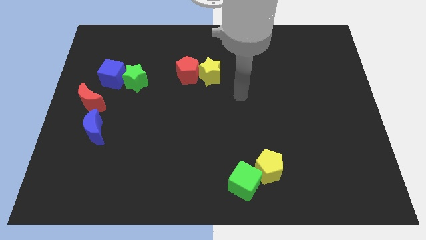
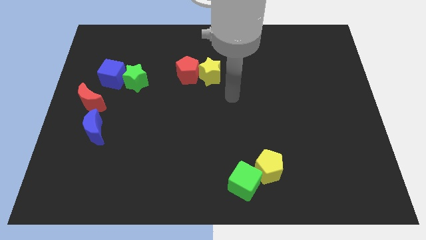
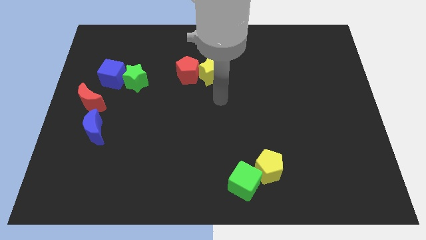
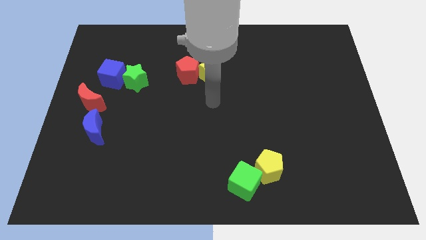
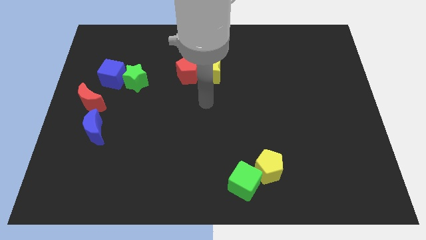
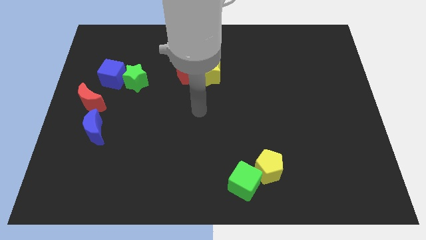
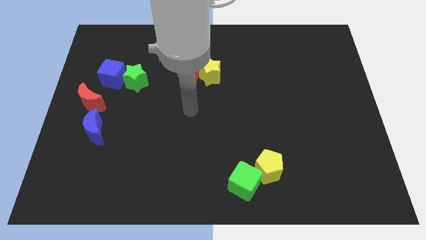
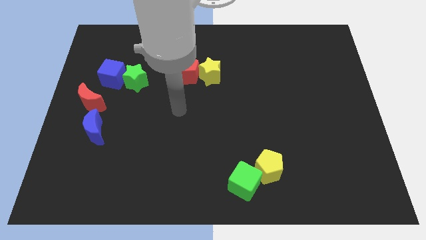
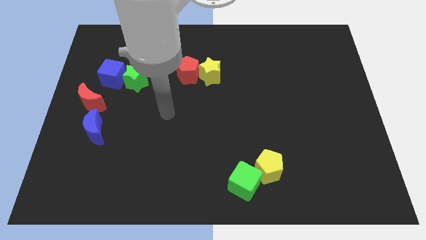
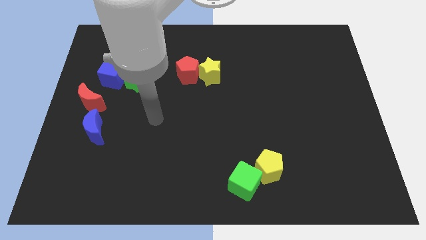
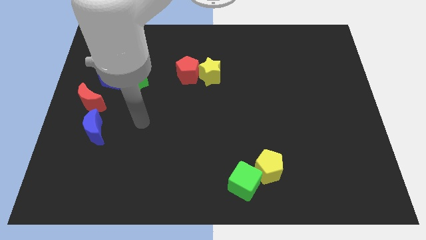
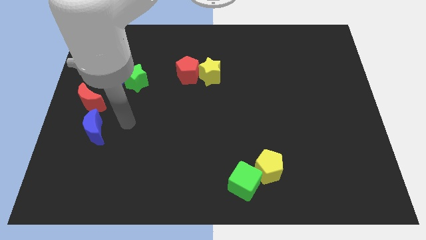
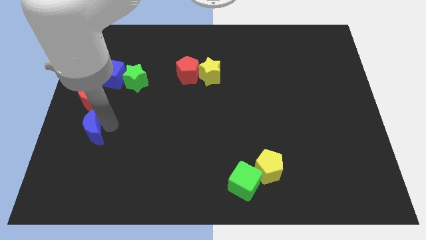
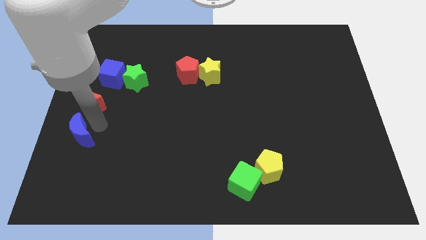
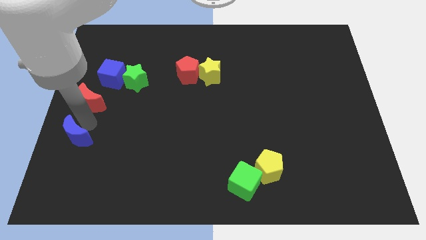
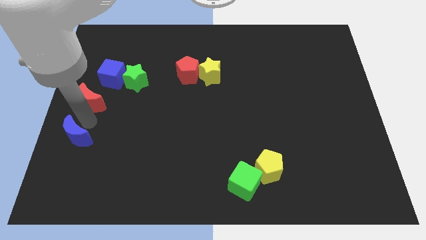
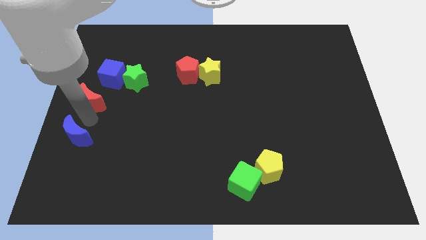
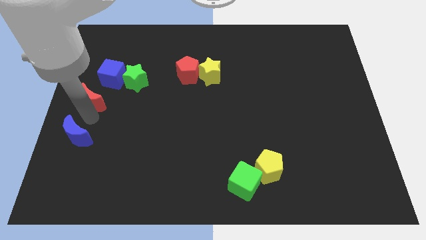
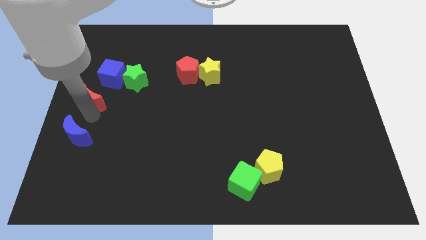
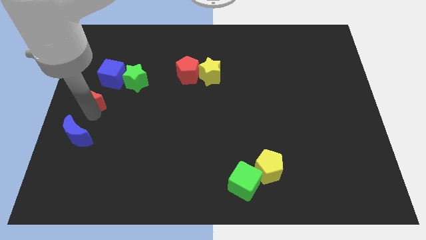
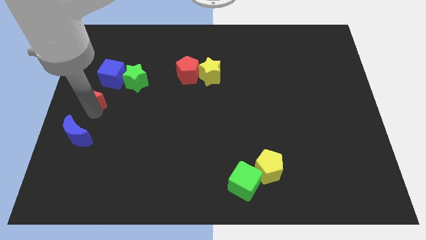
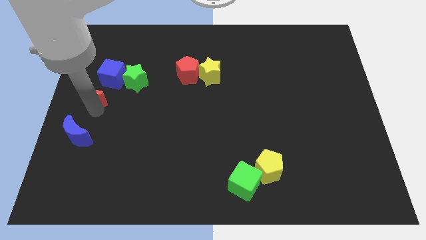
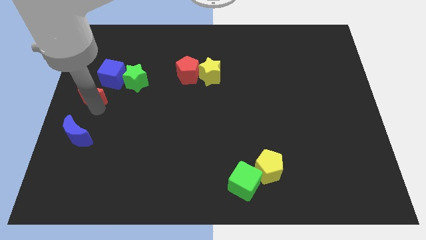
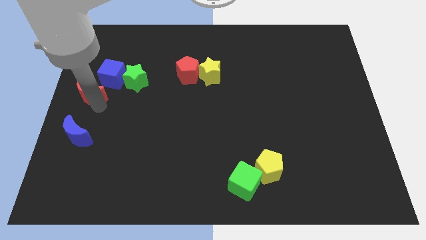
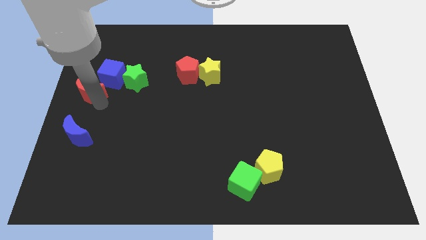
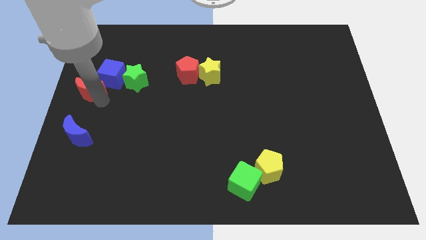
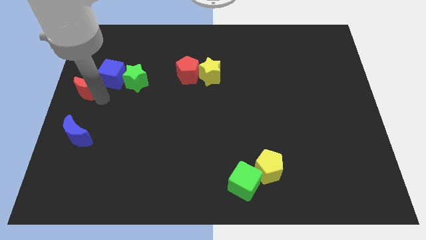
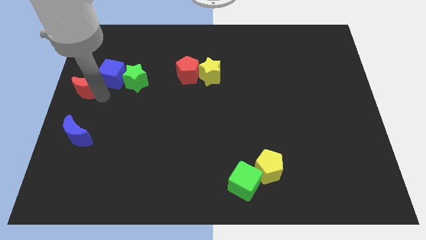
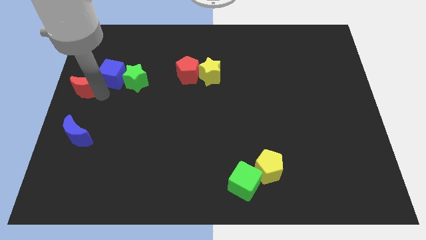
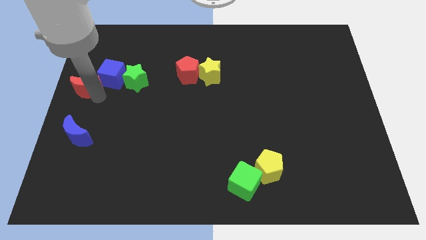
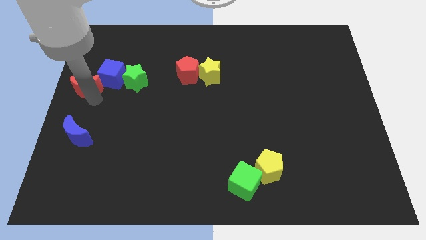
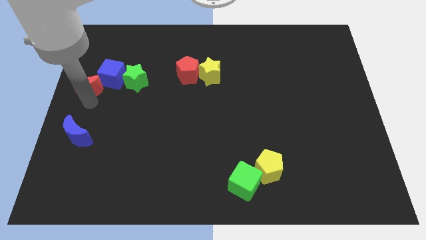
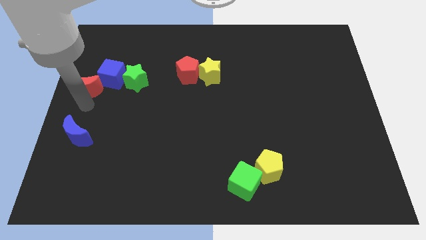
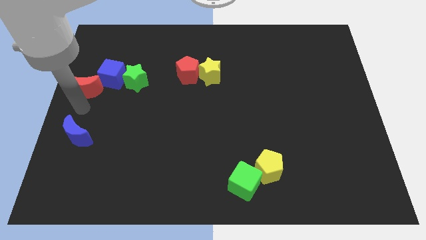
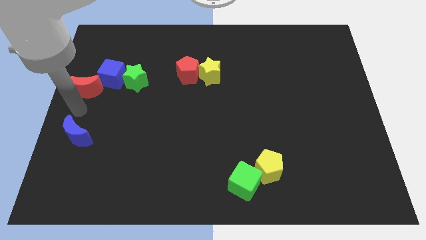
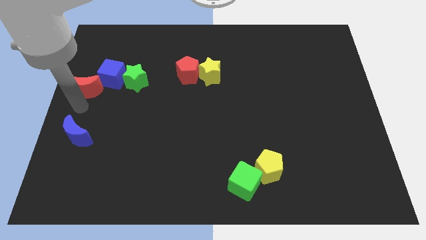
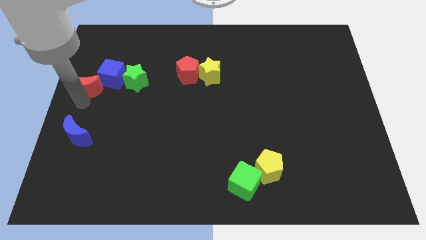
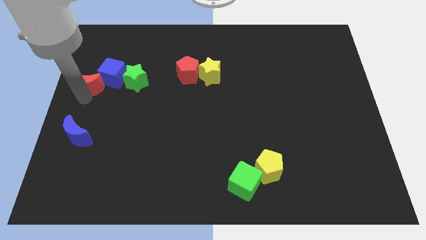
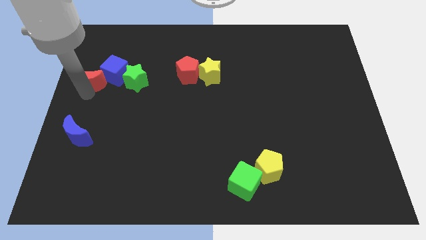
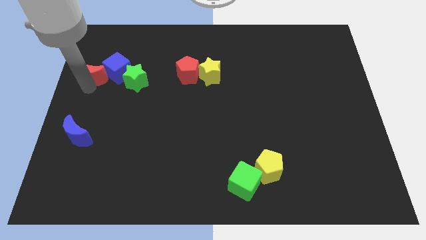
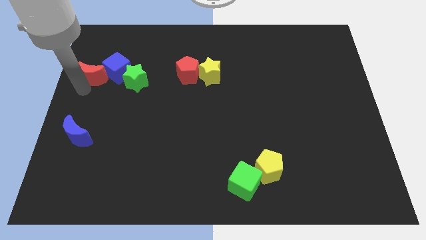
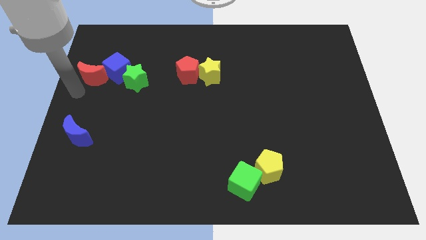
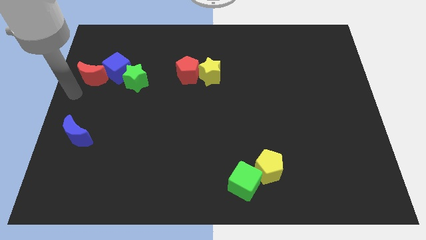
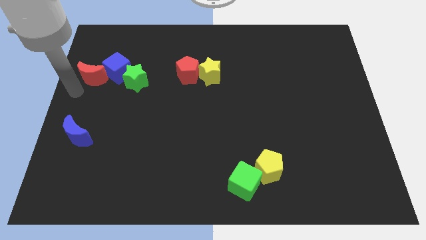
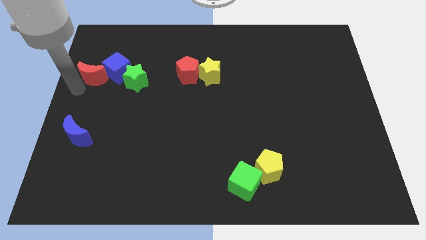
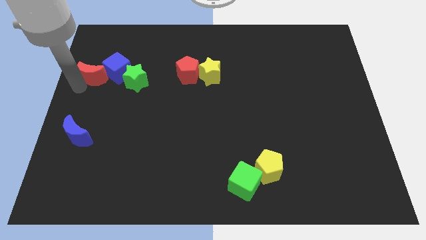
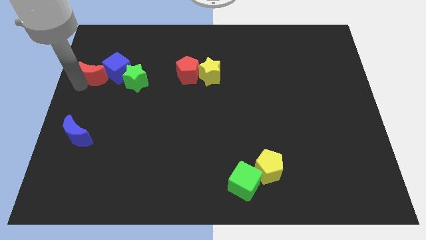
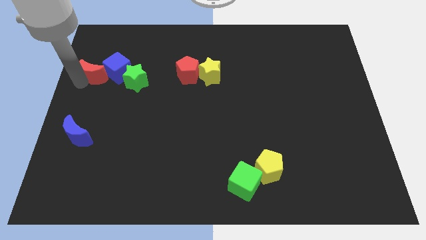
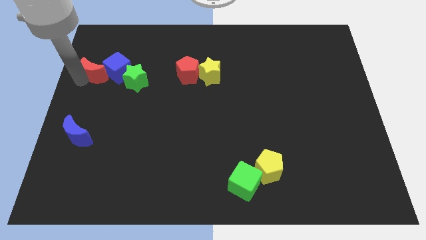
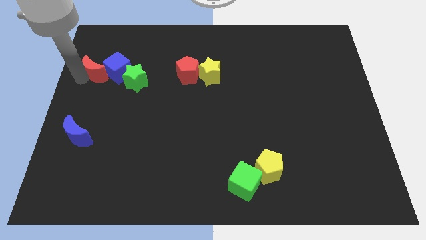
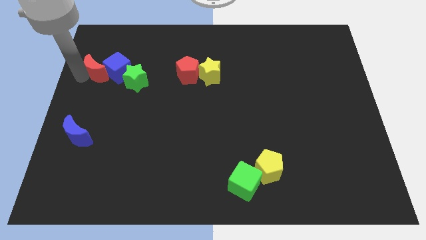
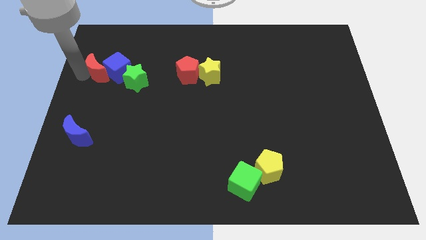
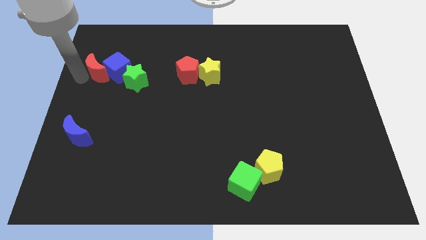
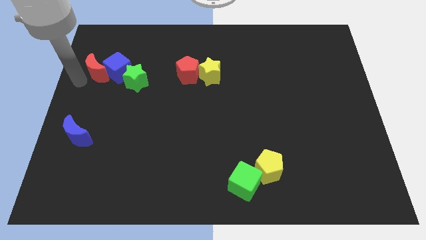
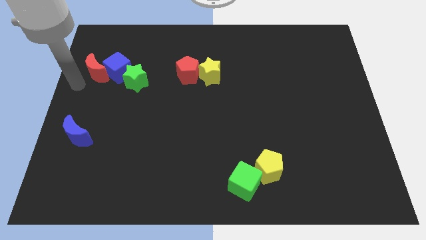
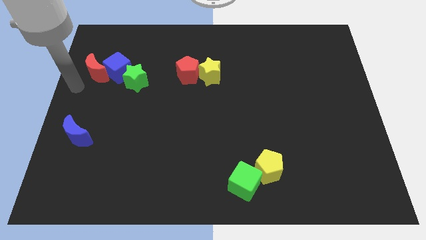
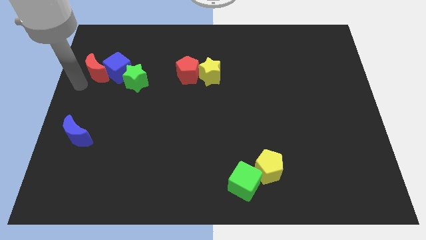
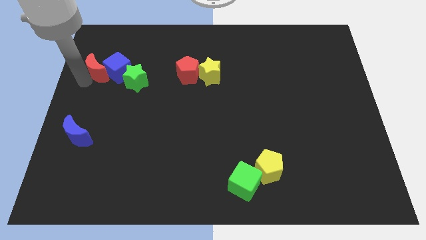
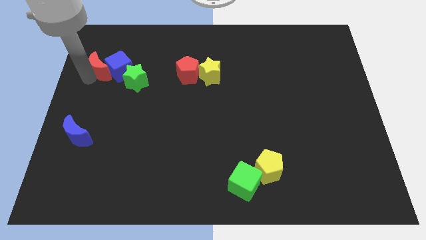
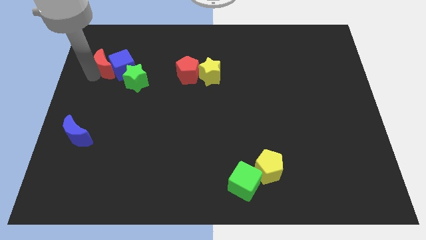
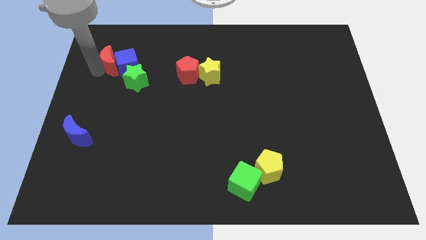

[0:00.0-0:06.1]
slide the red moon a bit up and to the right diagonally

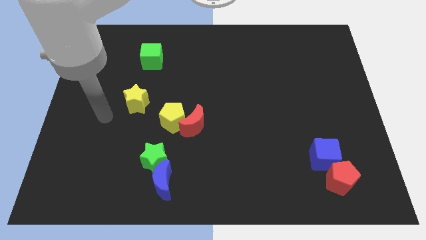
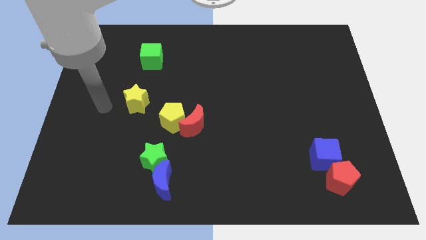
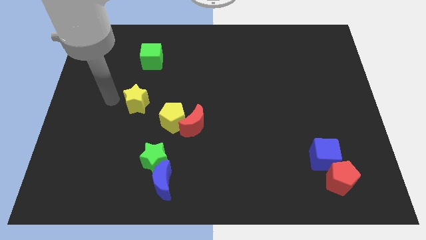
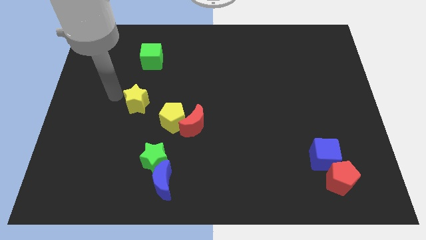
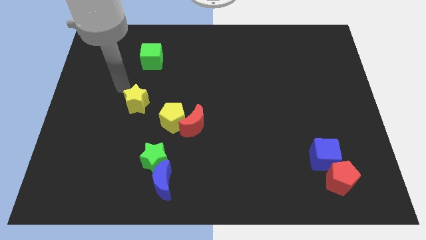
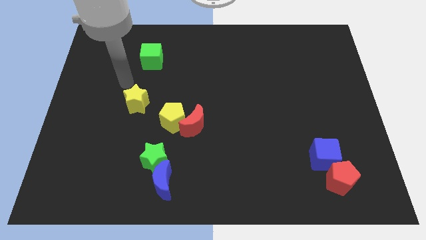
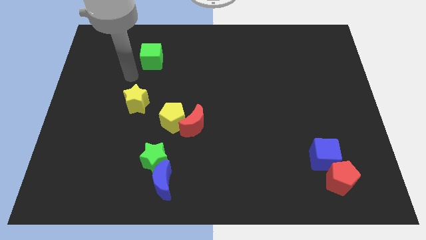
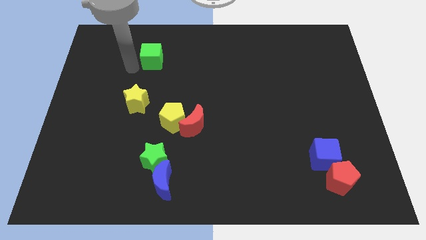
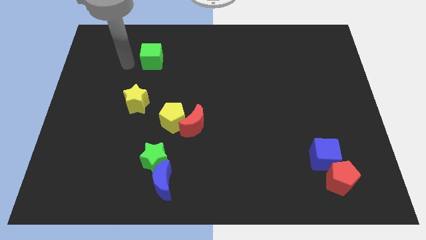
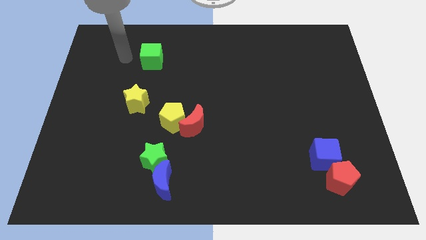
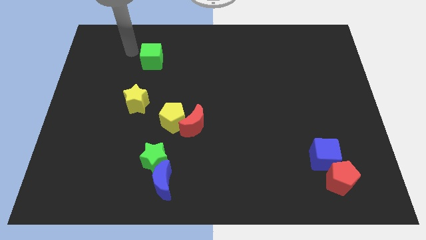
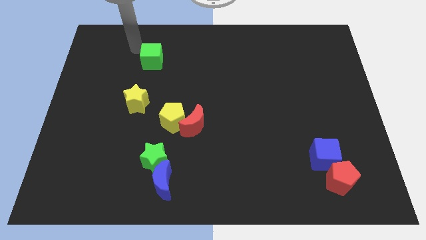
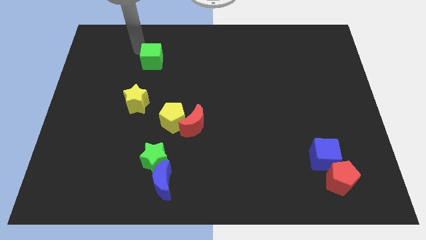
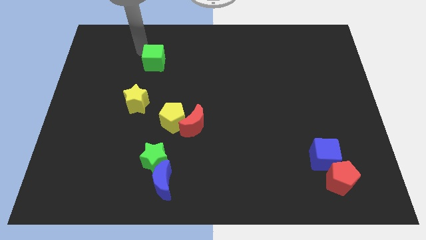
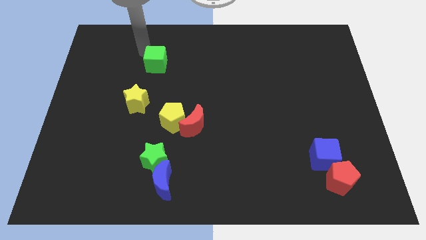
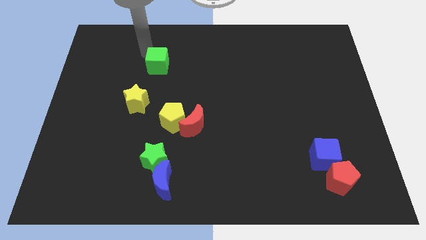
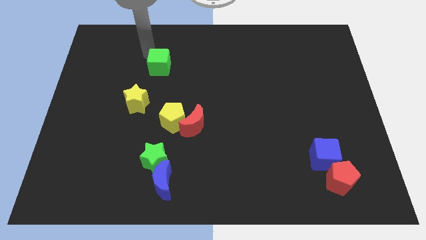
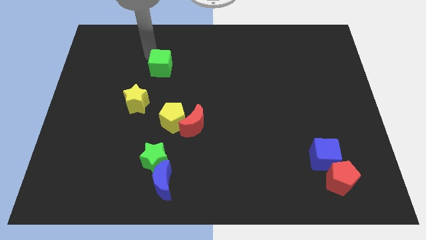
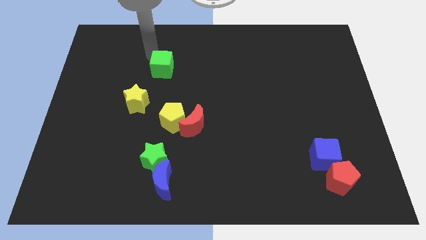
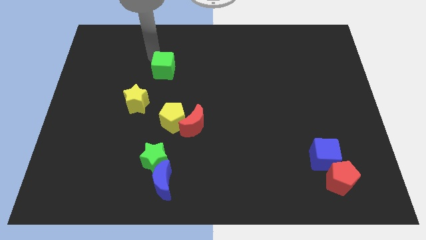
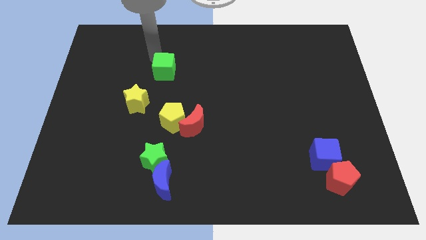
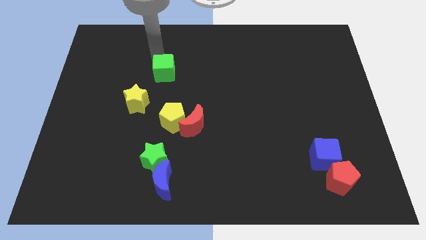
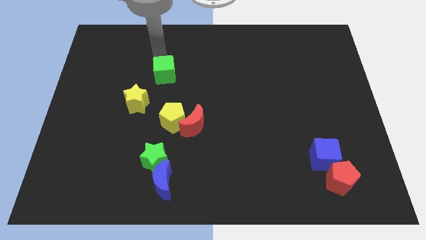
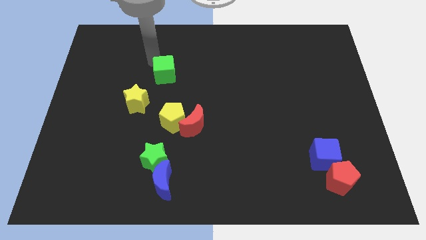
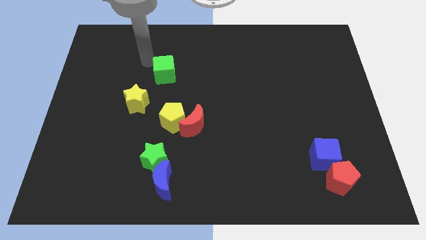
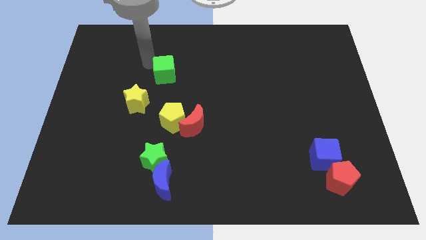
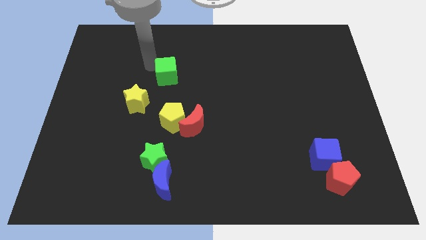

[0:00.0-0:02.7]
slightly move the green cube downwards and right diagonally
